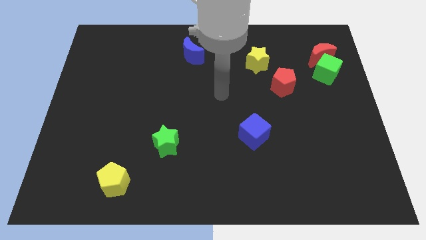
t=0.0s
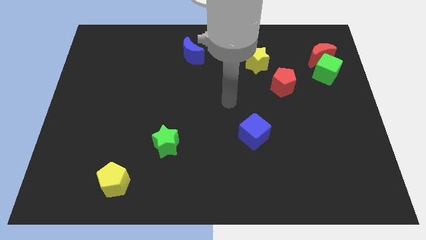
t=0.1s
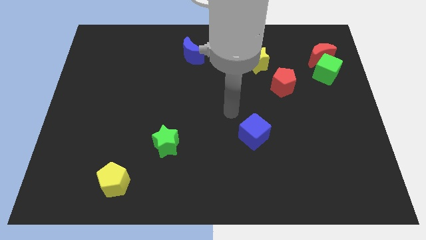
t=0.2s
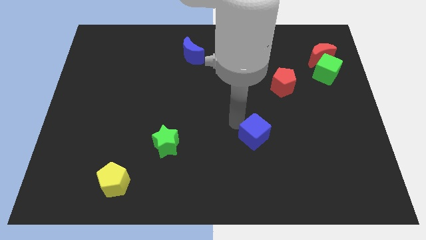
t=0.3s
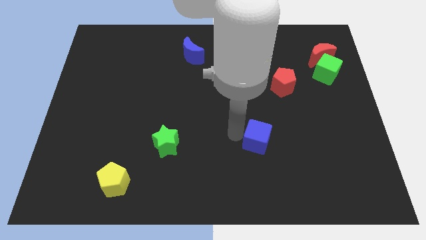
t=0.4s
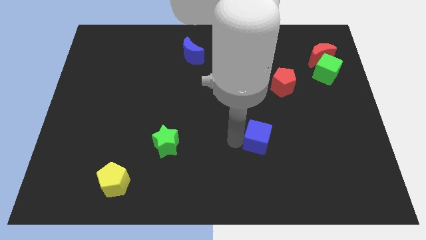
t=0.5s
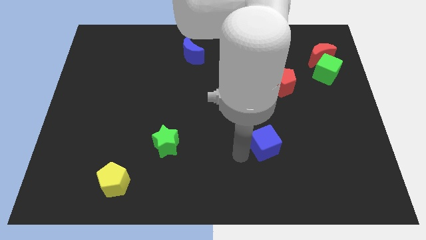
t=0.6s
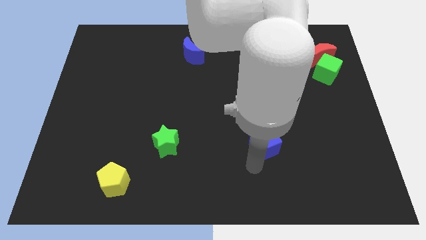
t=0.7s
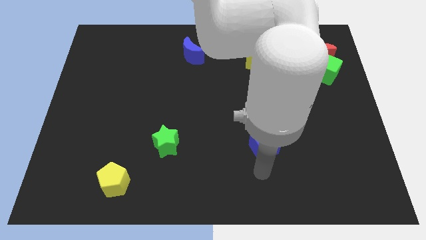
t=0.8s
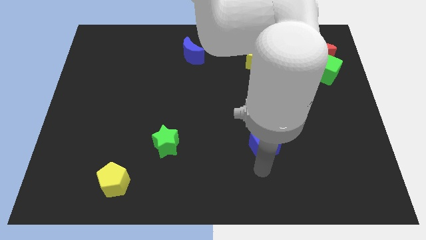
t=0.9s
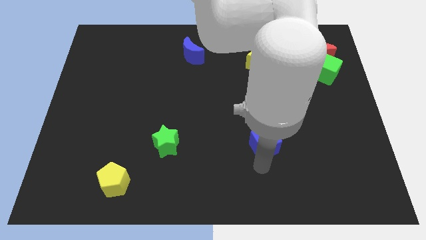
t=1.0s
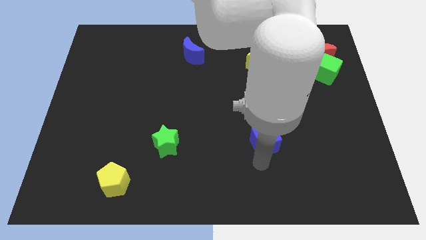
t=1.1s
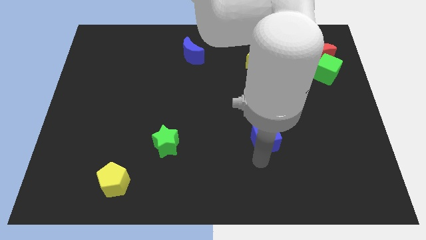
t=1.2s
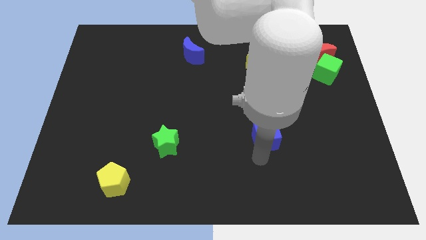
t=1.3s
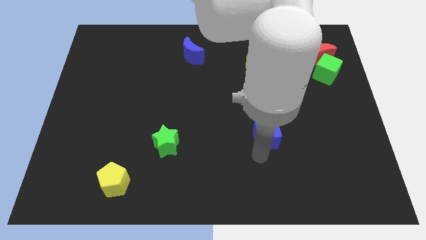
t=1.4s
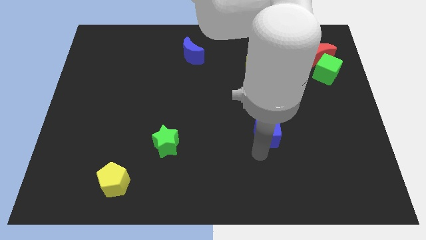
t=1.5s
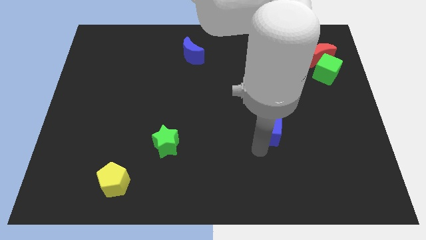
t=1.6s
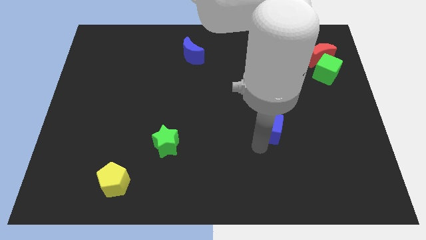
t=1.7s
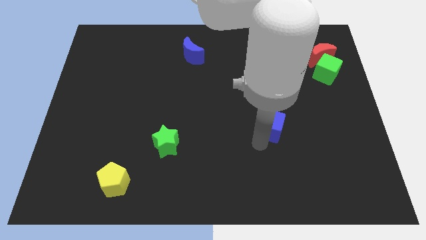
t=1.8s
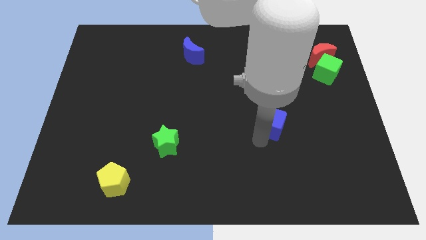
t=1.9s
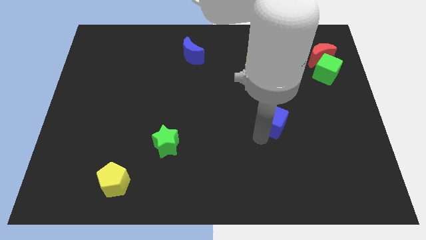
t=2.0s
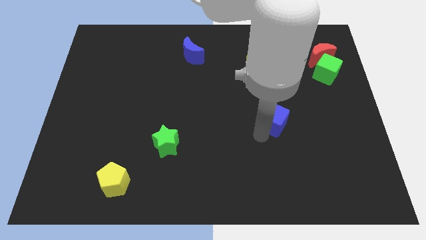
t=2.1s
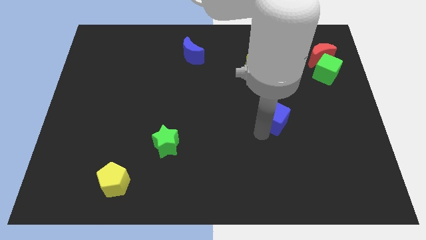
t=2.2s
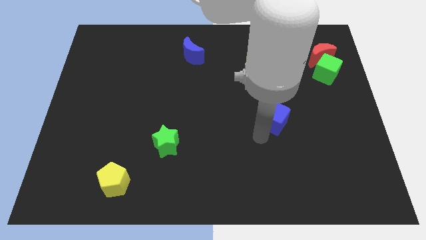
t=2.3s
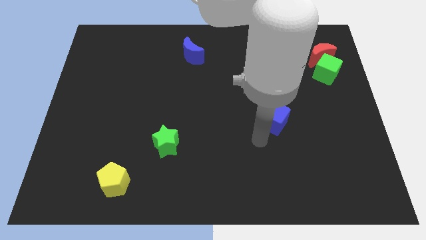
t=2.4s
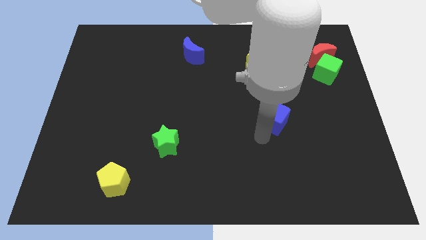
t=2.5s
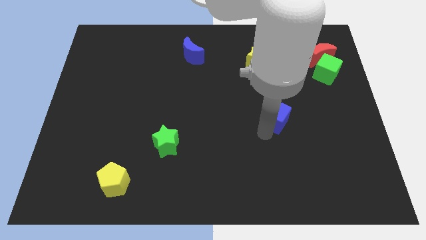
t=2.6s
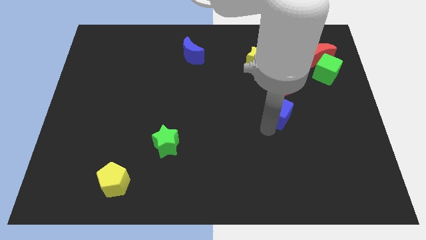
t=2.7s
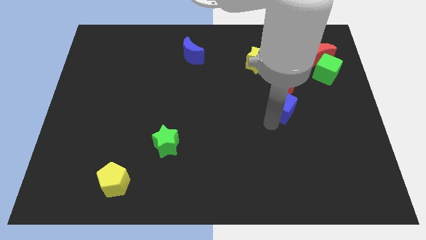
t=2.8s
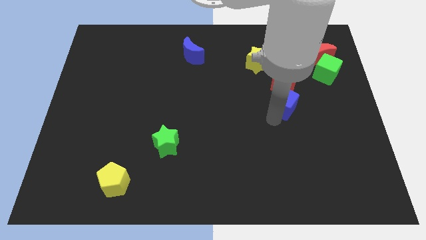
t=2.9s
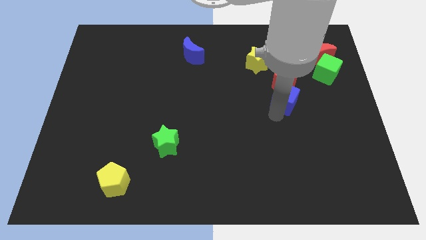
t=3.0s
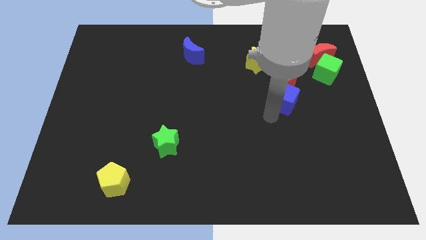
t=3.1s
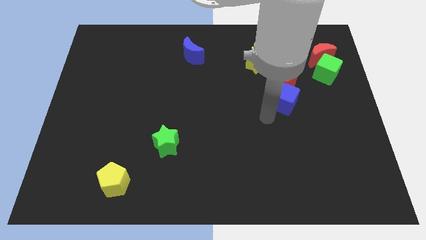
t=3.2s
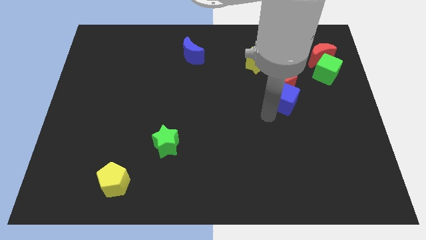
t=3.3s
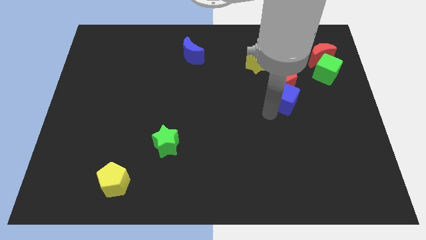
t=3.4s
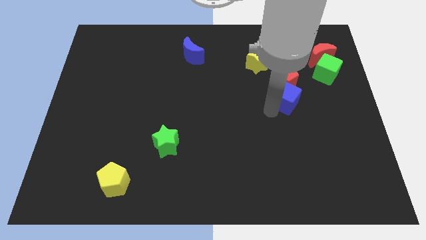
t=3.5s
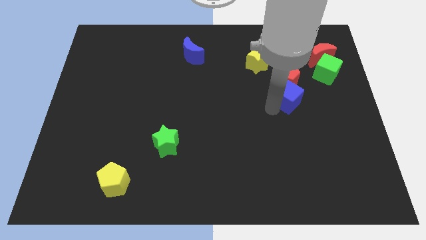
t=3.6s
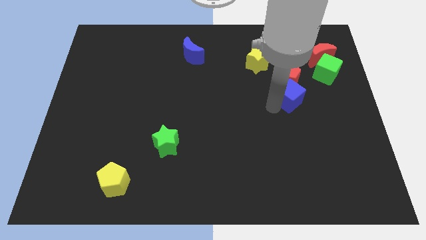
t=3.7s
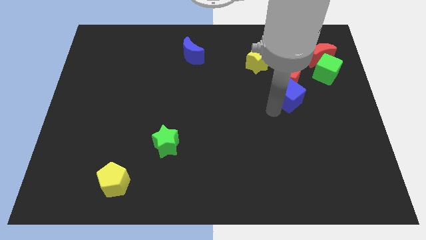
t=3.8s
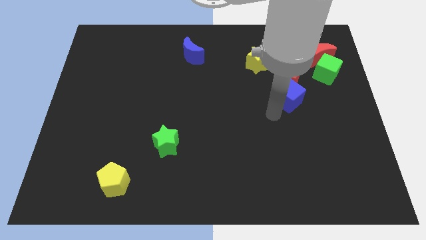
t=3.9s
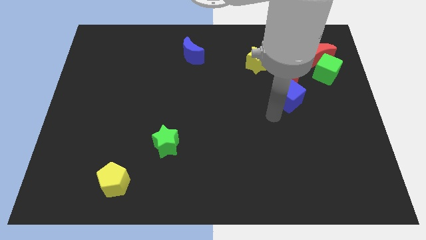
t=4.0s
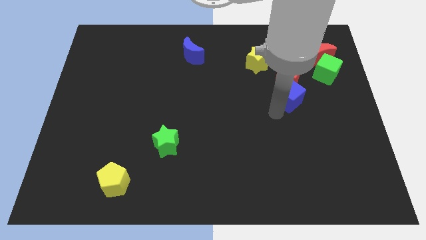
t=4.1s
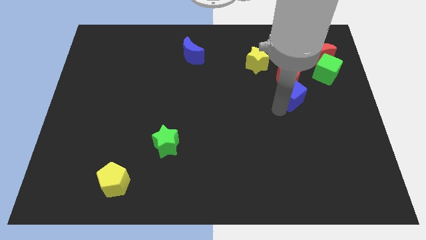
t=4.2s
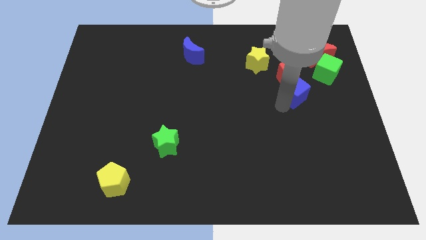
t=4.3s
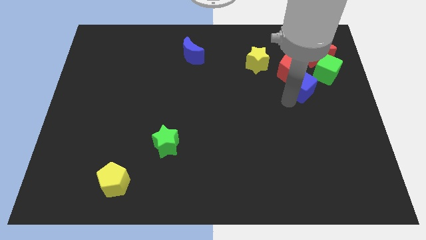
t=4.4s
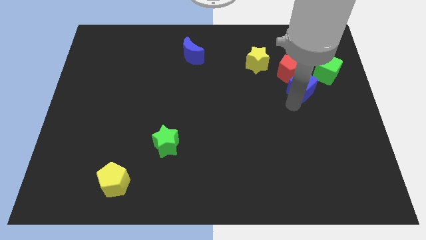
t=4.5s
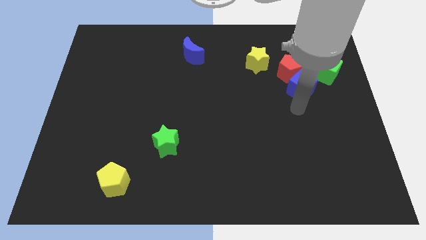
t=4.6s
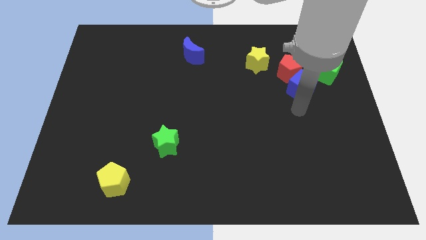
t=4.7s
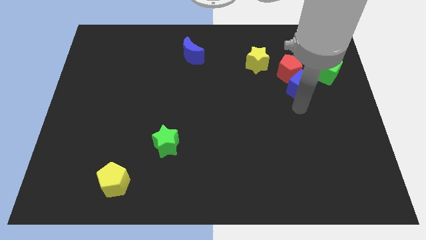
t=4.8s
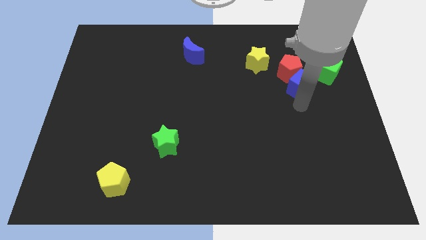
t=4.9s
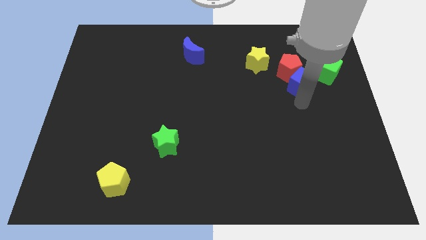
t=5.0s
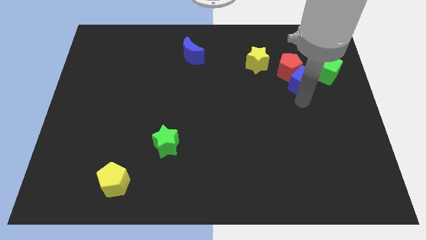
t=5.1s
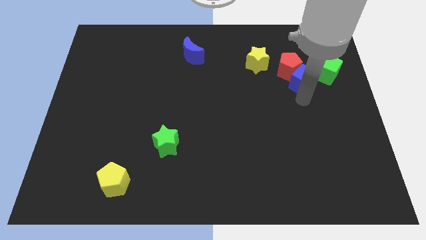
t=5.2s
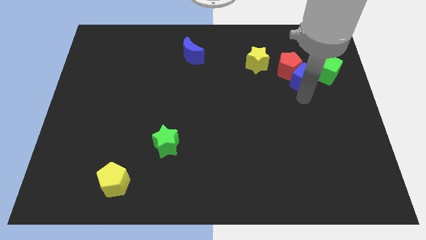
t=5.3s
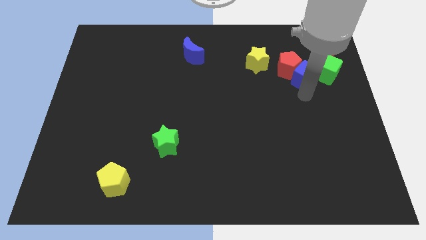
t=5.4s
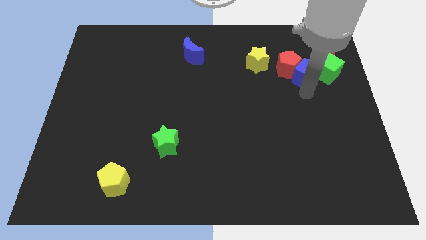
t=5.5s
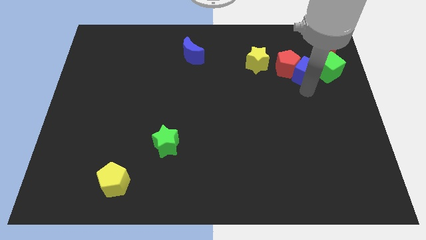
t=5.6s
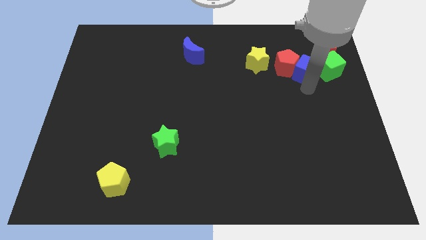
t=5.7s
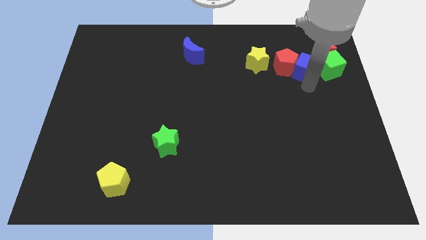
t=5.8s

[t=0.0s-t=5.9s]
slide the blue cube to the top left side of the green cube

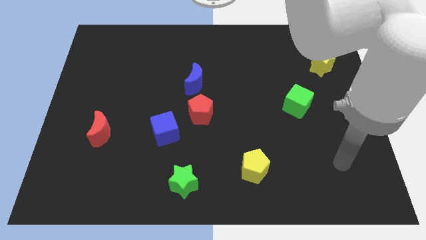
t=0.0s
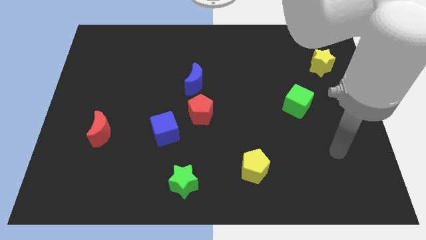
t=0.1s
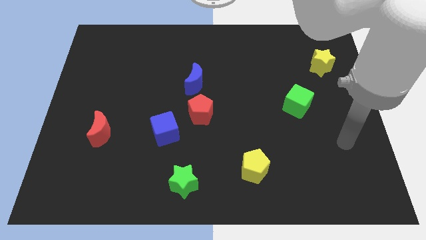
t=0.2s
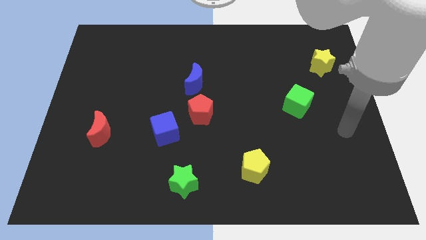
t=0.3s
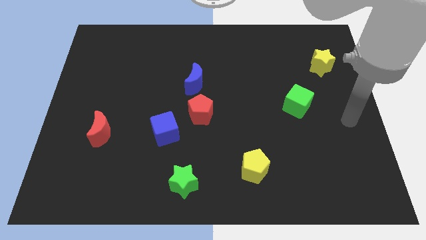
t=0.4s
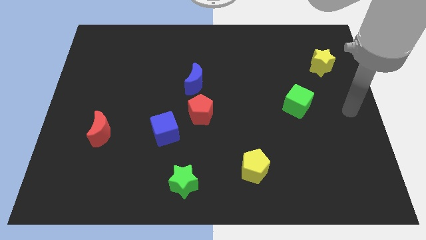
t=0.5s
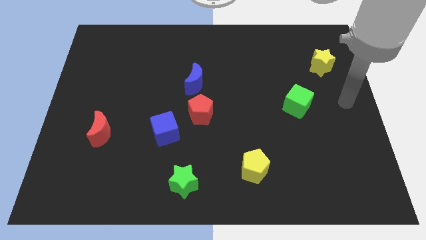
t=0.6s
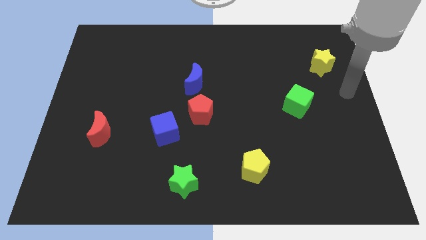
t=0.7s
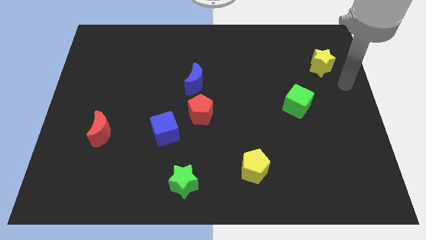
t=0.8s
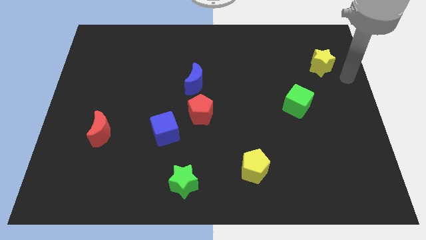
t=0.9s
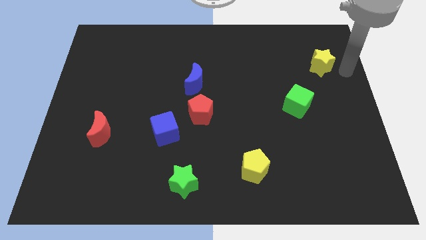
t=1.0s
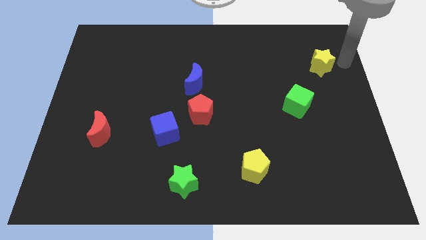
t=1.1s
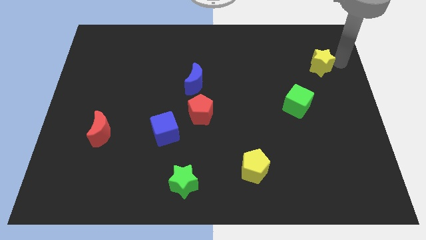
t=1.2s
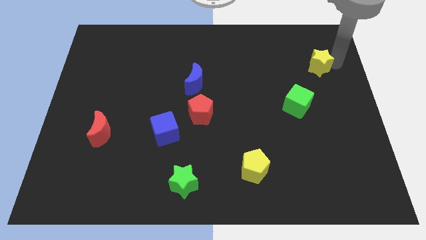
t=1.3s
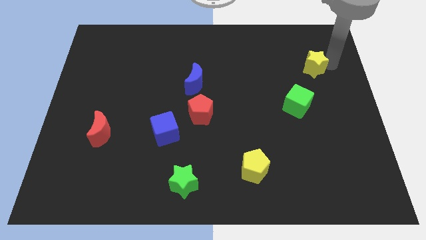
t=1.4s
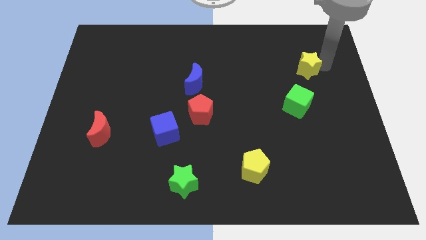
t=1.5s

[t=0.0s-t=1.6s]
slide the yellow star to the top side of the green cube

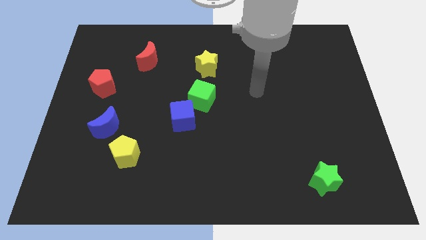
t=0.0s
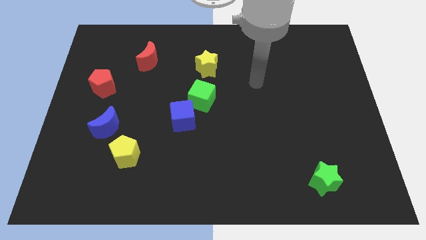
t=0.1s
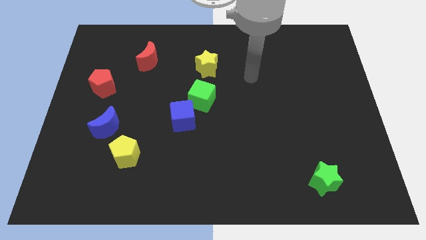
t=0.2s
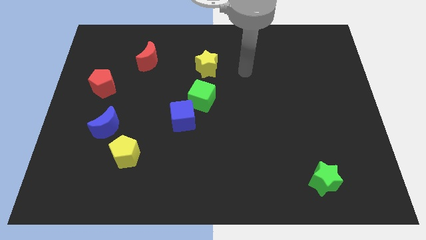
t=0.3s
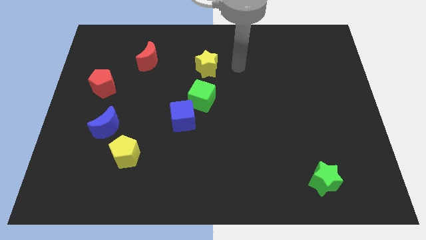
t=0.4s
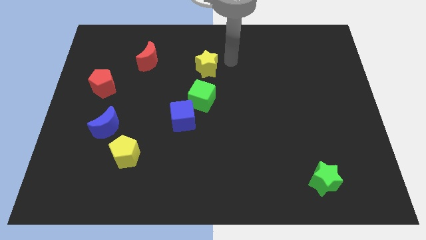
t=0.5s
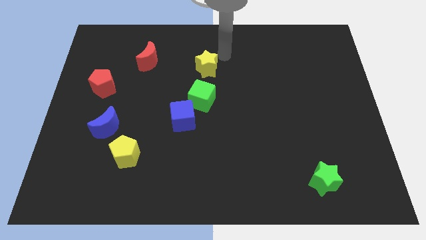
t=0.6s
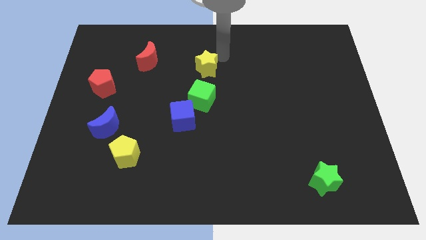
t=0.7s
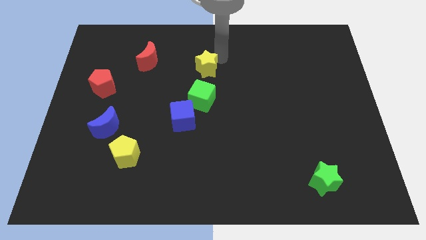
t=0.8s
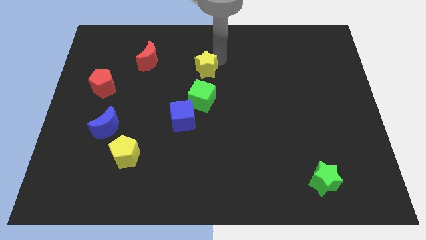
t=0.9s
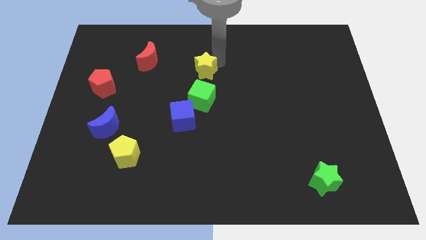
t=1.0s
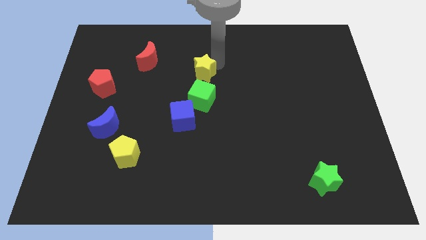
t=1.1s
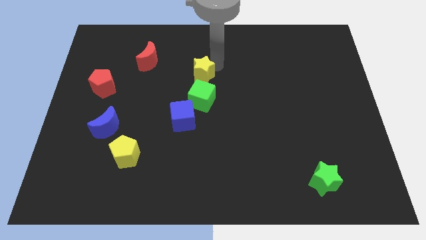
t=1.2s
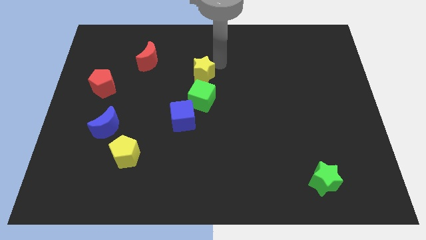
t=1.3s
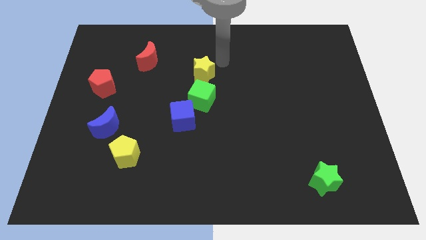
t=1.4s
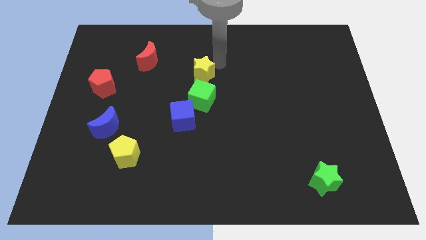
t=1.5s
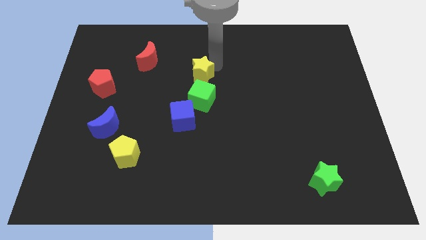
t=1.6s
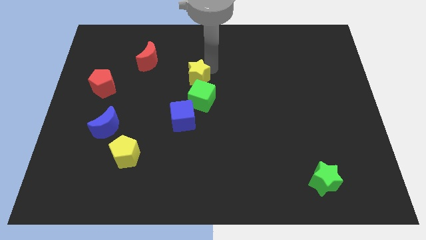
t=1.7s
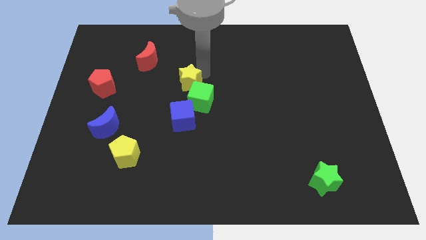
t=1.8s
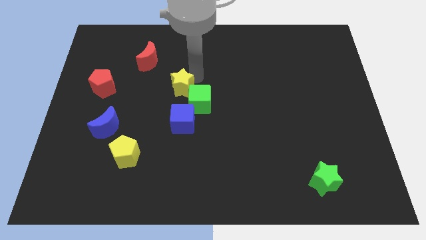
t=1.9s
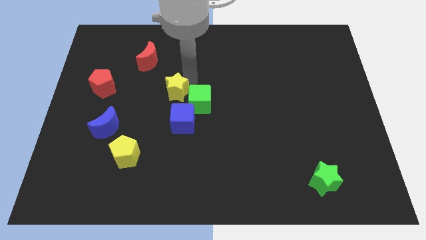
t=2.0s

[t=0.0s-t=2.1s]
slide the yellow star diagonally up and to the left of the blue cube
